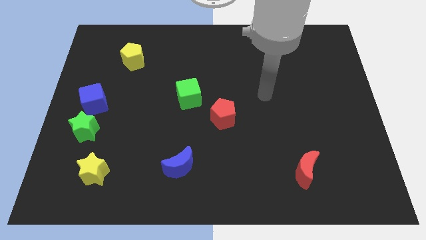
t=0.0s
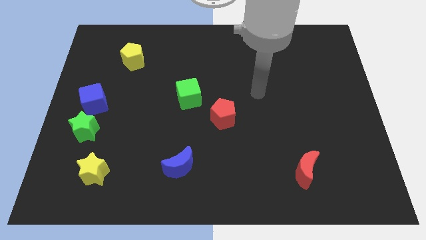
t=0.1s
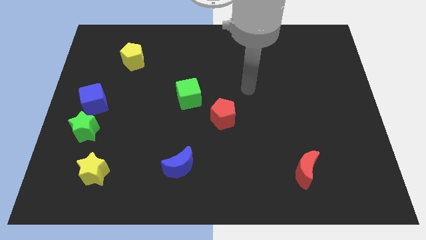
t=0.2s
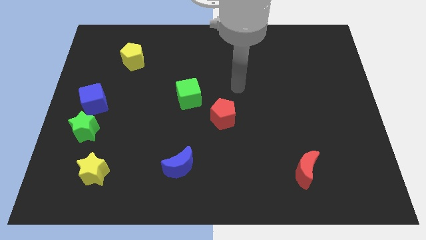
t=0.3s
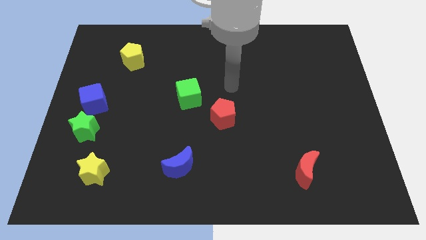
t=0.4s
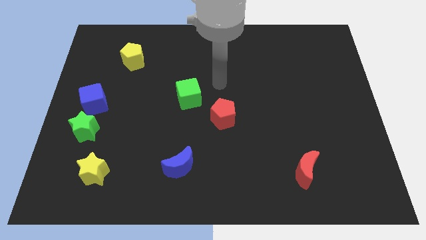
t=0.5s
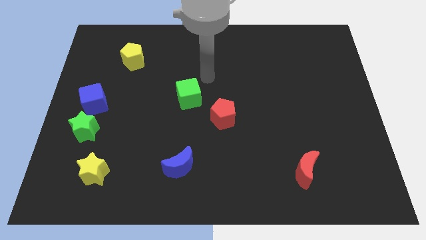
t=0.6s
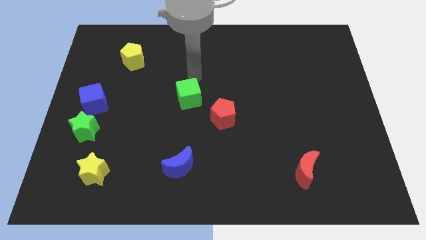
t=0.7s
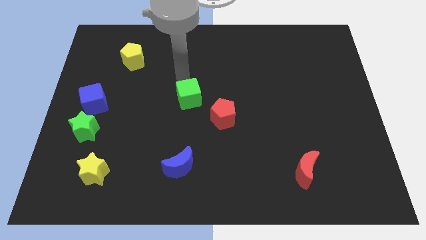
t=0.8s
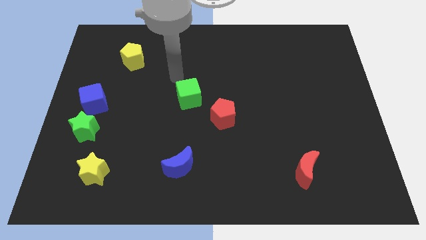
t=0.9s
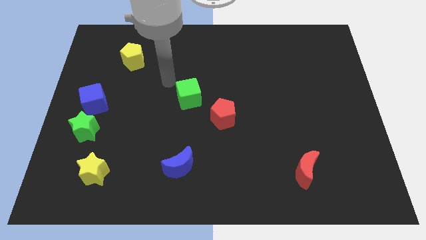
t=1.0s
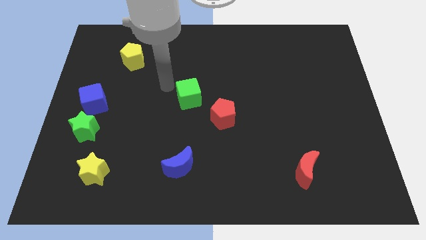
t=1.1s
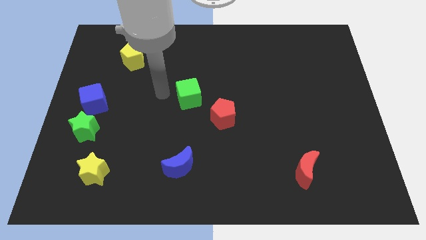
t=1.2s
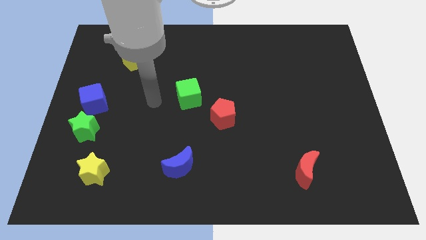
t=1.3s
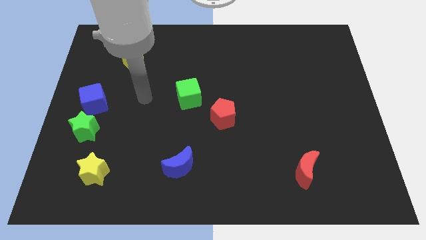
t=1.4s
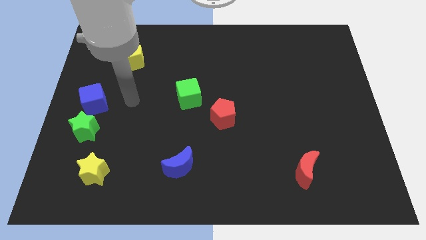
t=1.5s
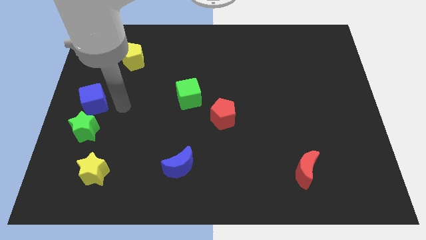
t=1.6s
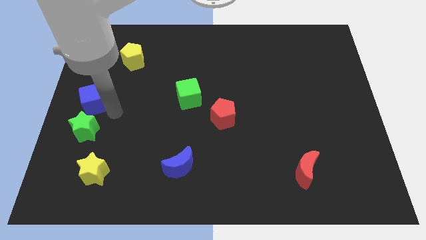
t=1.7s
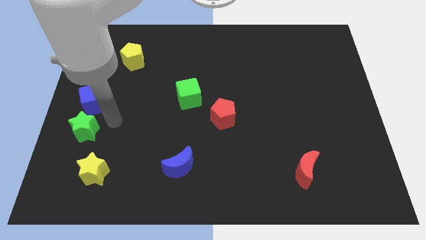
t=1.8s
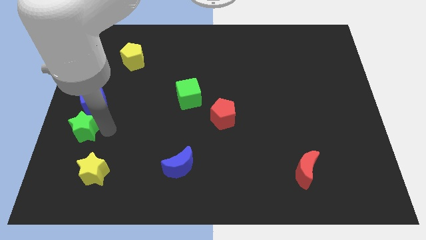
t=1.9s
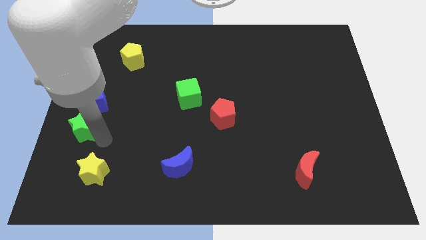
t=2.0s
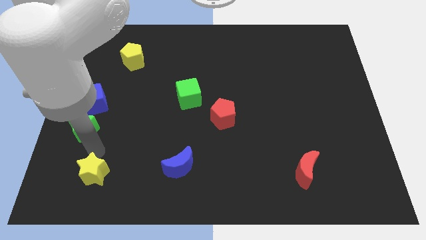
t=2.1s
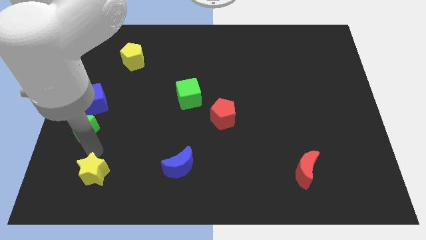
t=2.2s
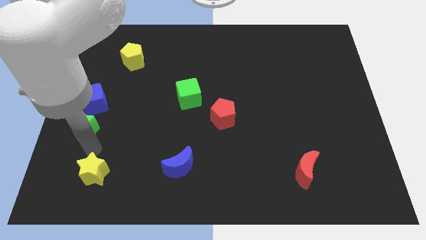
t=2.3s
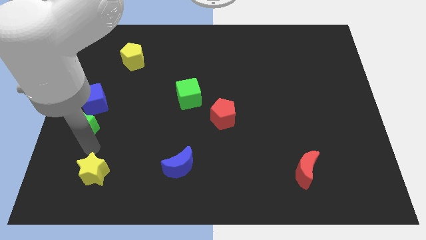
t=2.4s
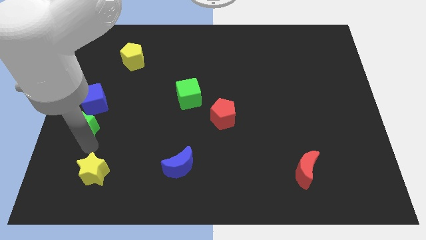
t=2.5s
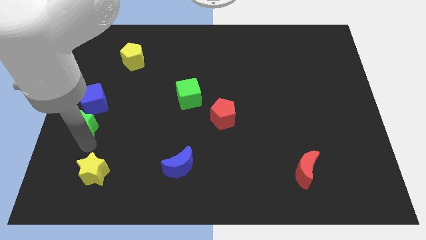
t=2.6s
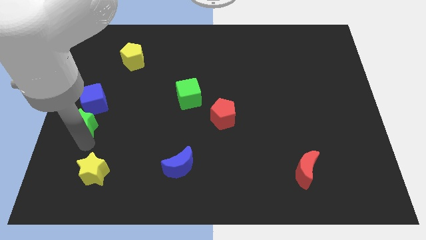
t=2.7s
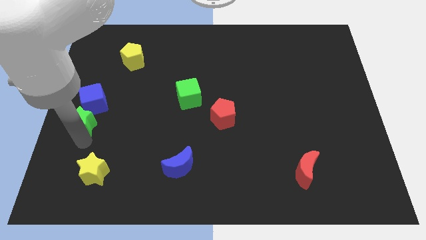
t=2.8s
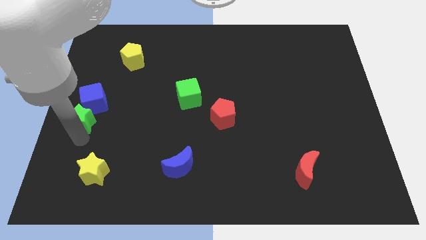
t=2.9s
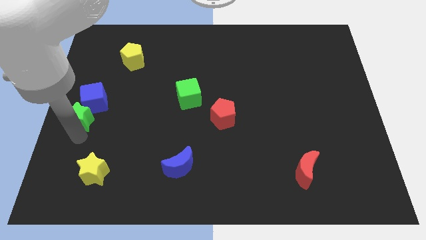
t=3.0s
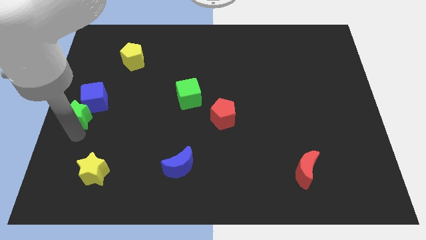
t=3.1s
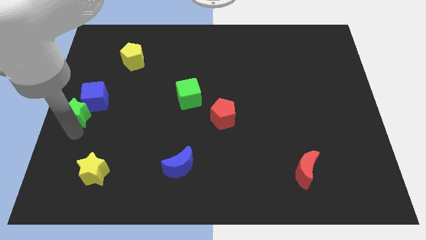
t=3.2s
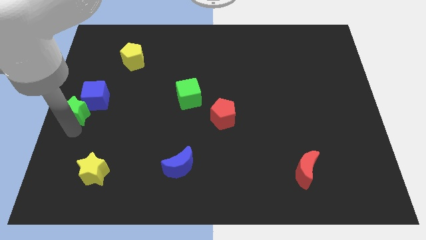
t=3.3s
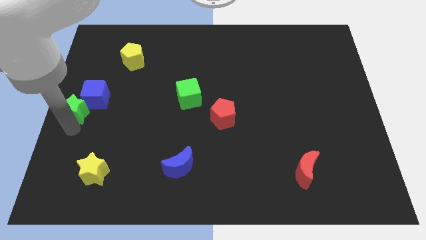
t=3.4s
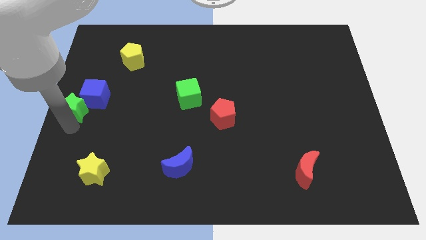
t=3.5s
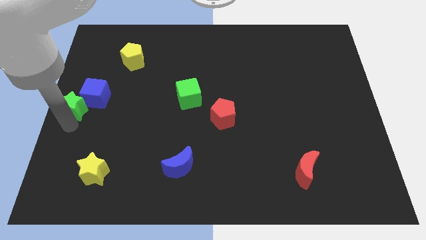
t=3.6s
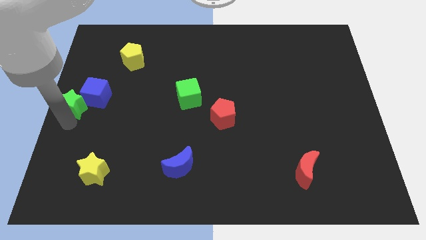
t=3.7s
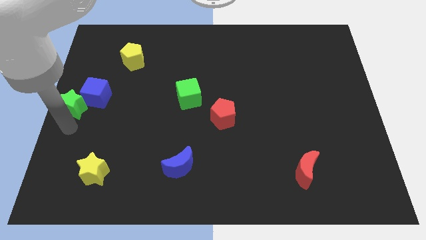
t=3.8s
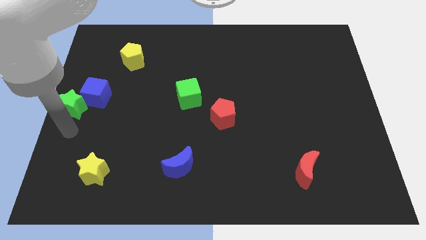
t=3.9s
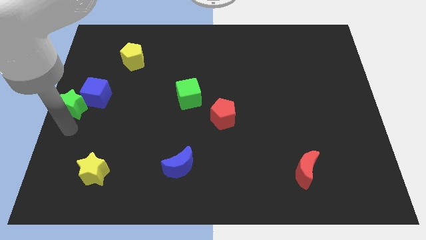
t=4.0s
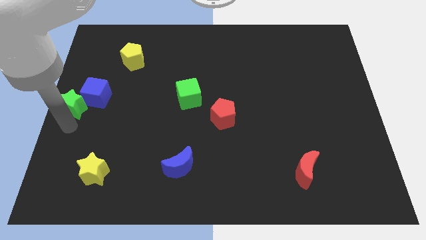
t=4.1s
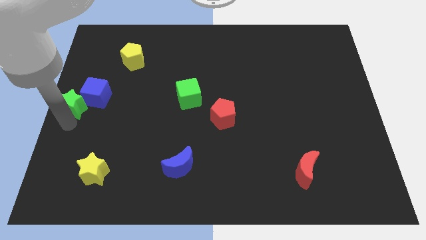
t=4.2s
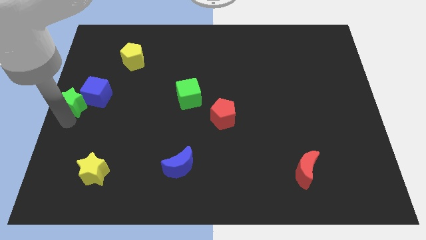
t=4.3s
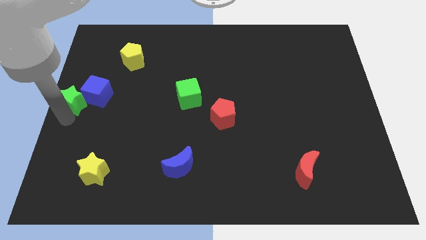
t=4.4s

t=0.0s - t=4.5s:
slightly push the green star up

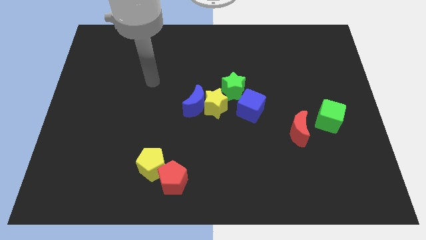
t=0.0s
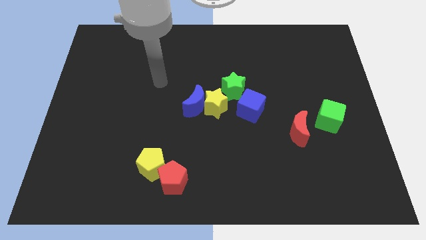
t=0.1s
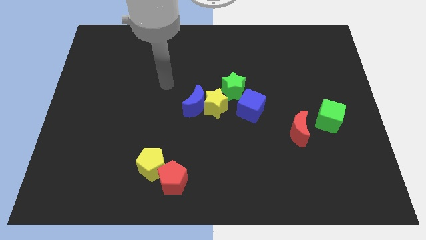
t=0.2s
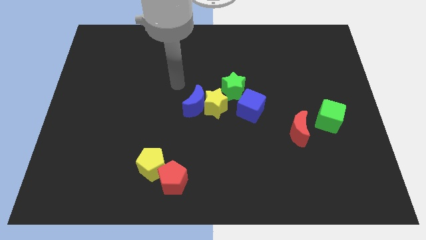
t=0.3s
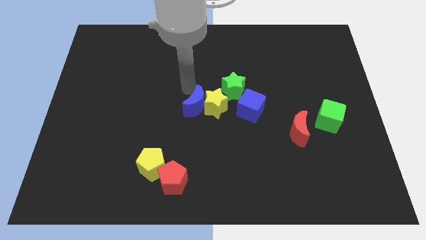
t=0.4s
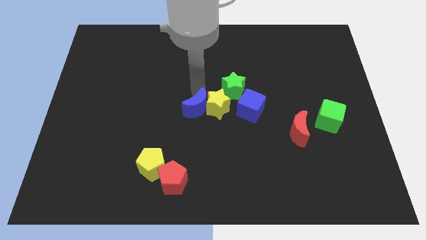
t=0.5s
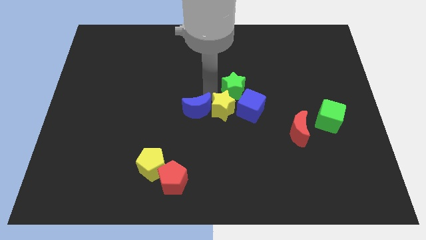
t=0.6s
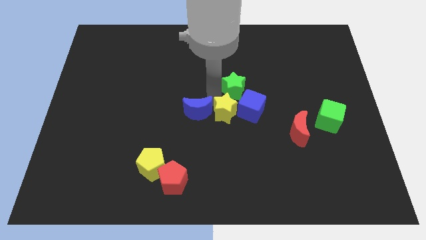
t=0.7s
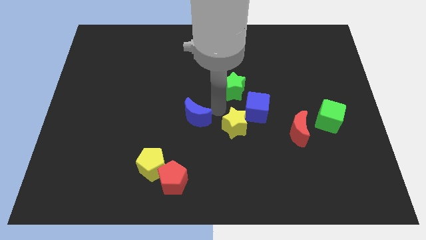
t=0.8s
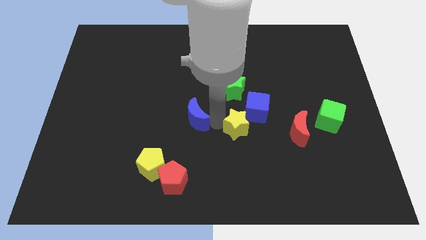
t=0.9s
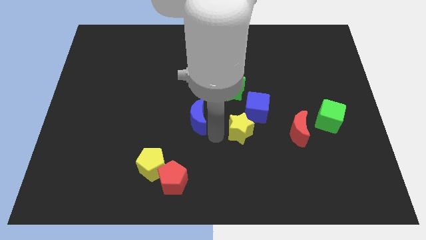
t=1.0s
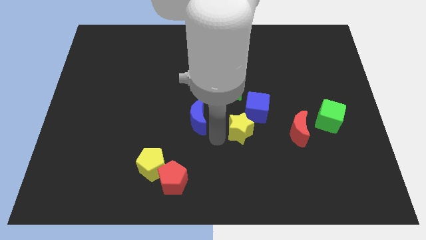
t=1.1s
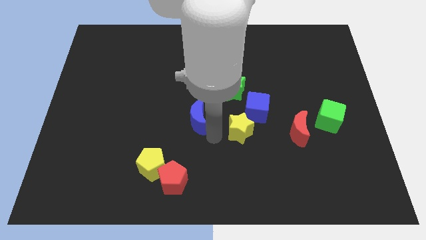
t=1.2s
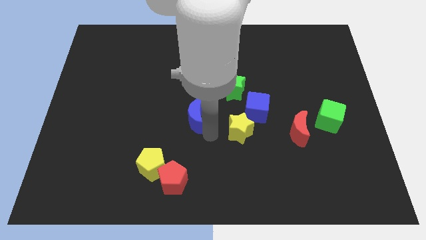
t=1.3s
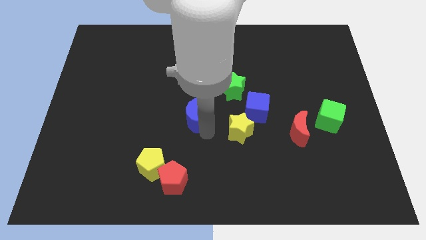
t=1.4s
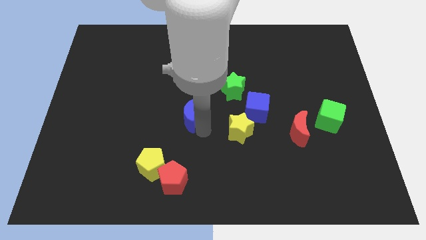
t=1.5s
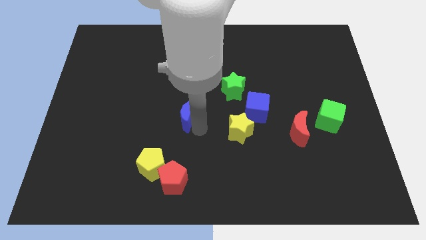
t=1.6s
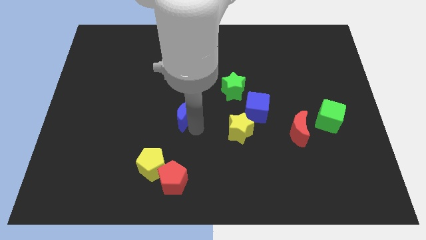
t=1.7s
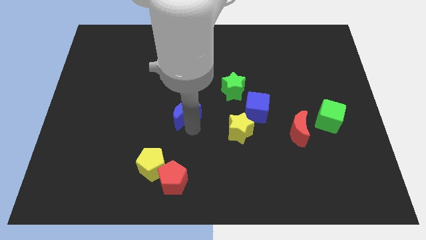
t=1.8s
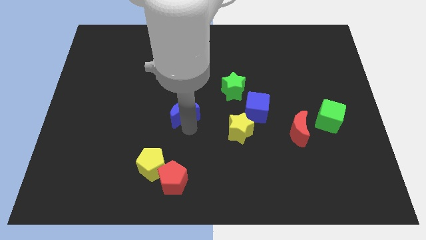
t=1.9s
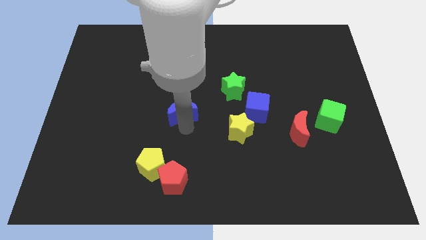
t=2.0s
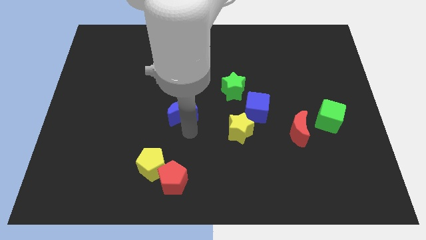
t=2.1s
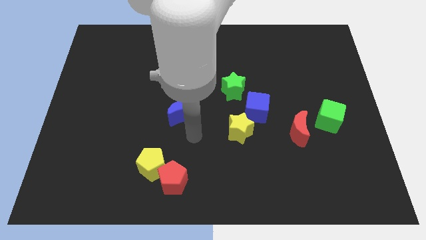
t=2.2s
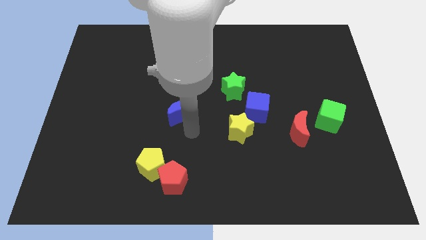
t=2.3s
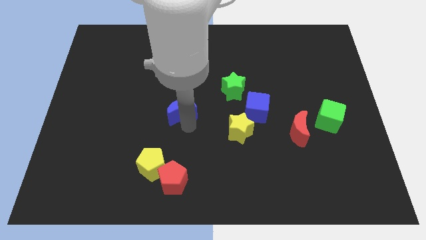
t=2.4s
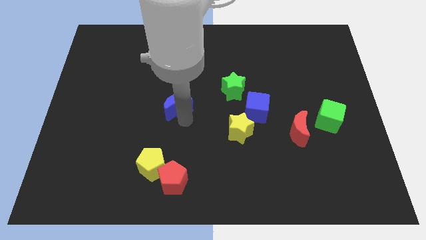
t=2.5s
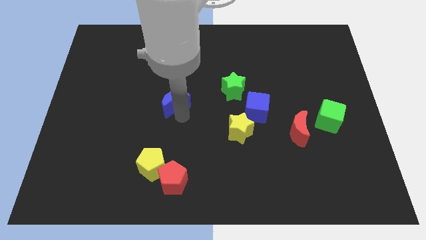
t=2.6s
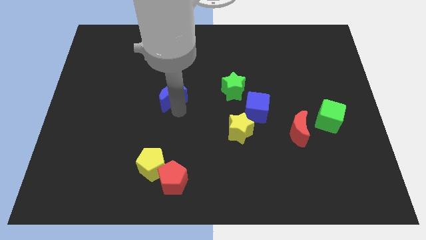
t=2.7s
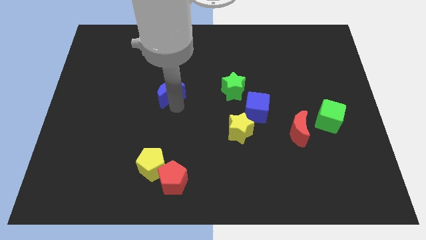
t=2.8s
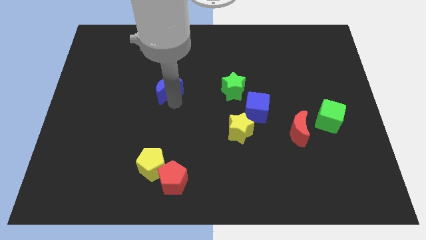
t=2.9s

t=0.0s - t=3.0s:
move the blue moon diagonally upwards and to the left a little bit

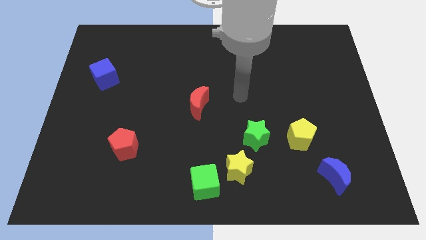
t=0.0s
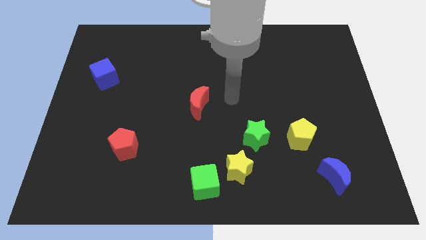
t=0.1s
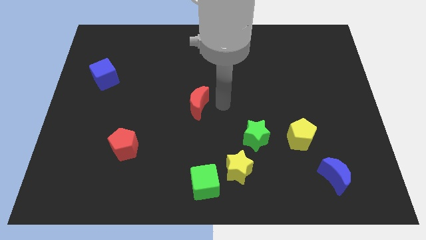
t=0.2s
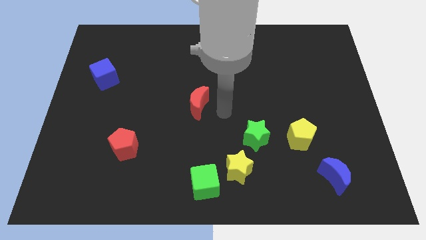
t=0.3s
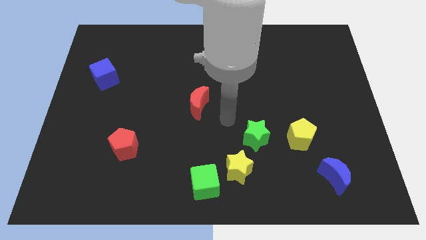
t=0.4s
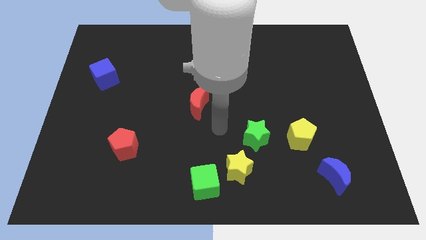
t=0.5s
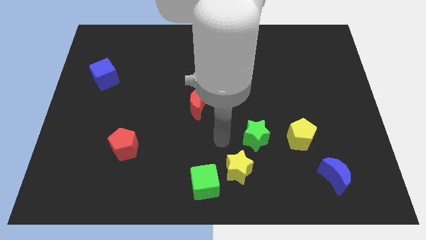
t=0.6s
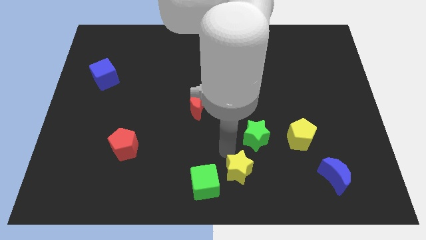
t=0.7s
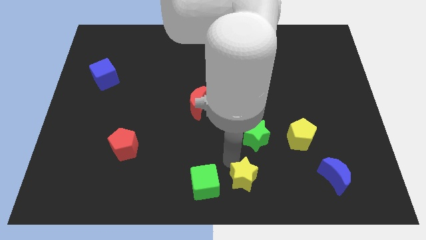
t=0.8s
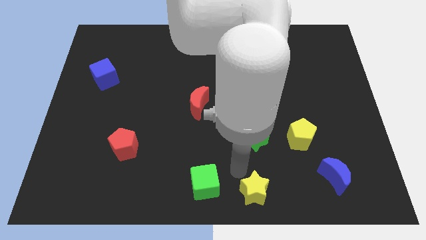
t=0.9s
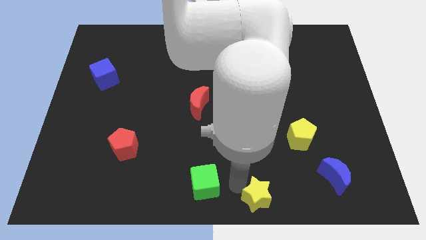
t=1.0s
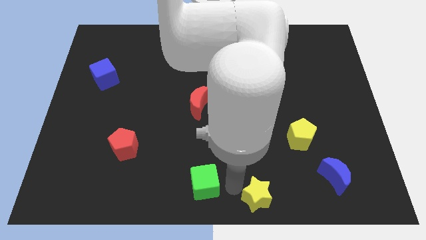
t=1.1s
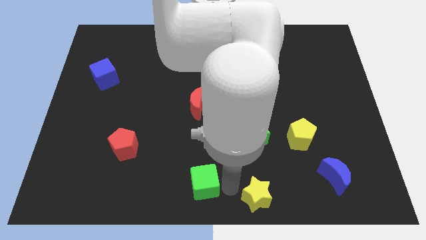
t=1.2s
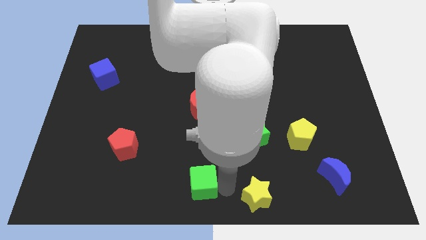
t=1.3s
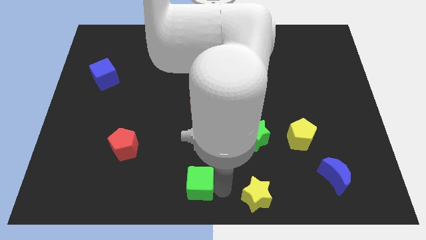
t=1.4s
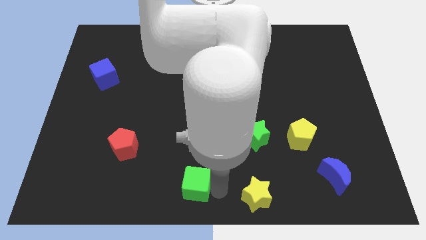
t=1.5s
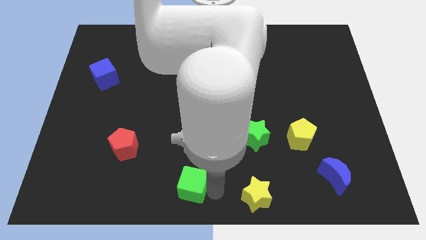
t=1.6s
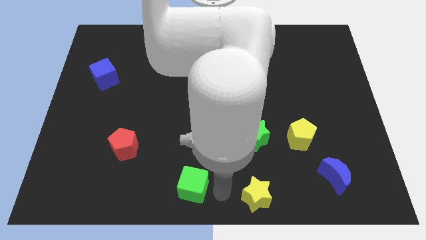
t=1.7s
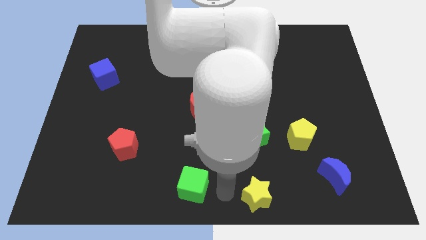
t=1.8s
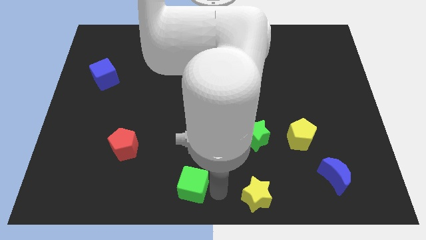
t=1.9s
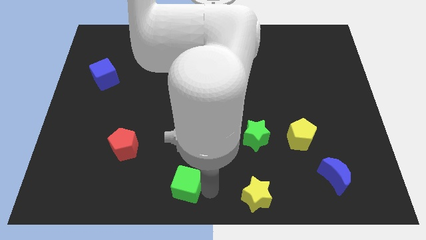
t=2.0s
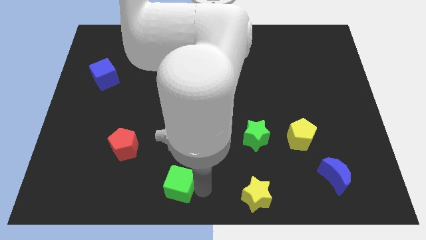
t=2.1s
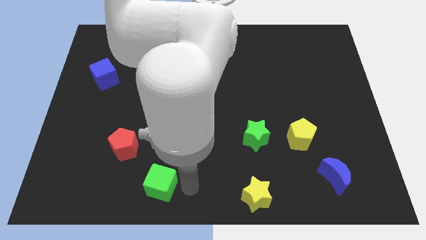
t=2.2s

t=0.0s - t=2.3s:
slightly slide the green cube left
